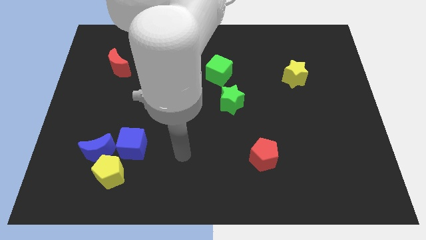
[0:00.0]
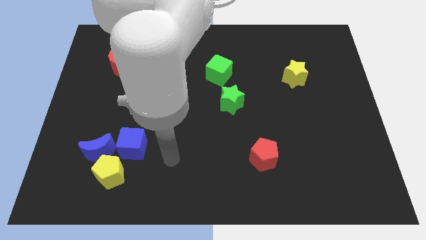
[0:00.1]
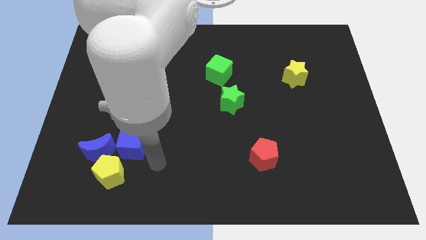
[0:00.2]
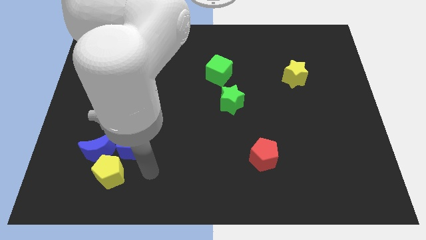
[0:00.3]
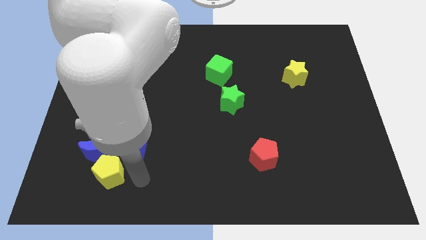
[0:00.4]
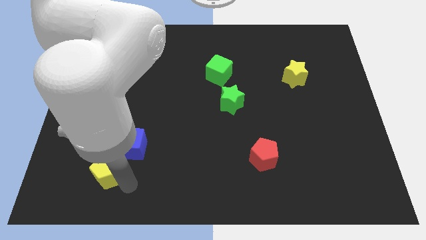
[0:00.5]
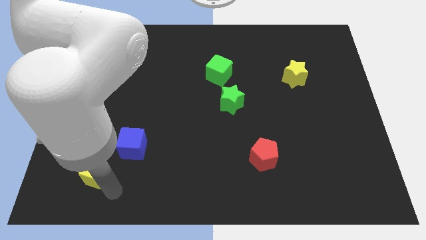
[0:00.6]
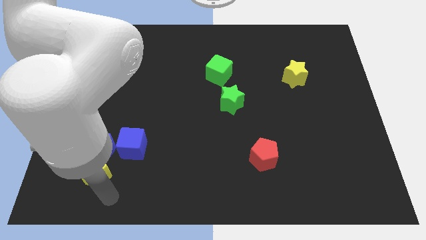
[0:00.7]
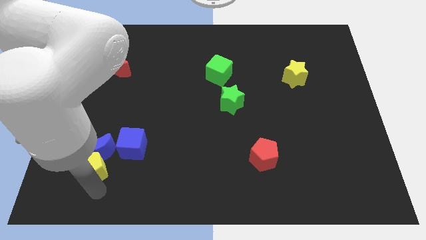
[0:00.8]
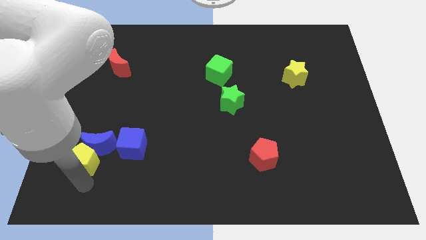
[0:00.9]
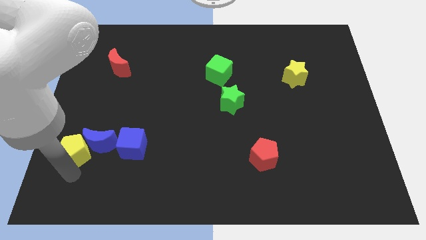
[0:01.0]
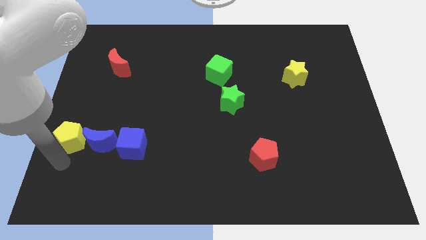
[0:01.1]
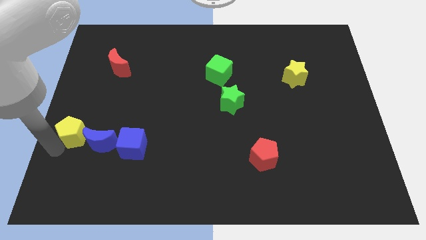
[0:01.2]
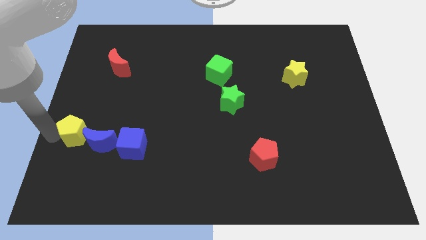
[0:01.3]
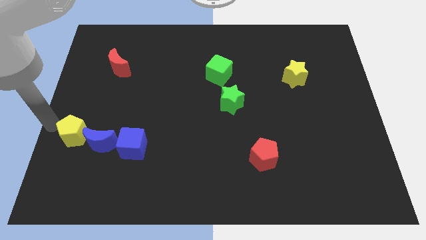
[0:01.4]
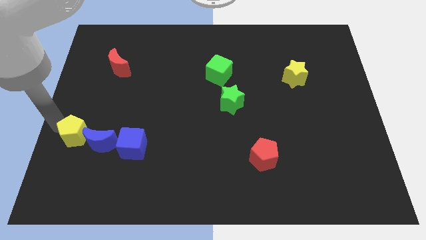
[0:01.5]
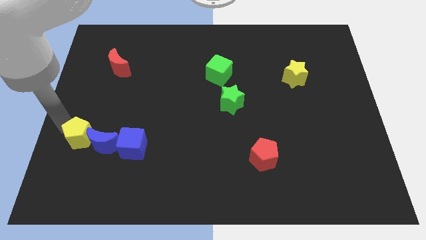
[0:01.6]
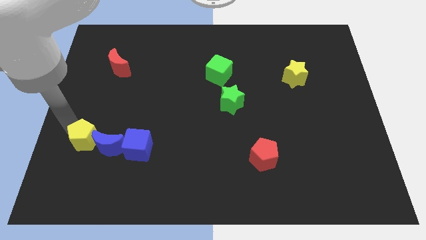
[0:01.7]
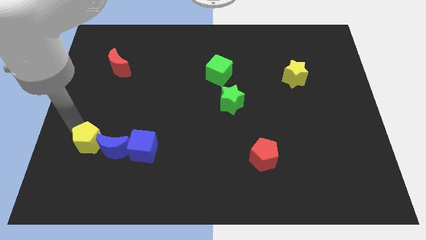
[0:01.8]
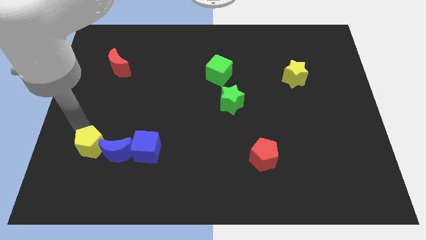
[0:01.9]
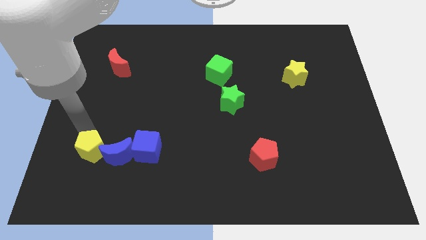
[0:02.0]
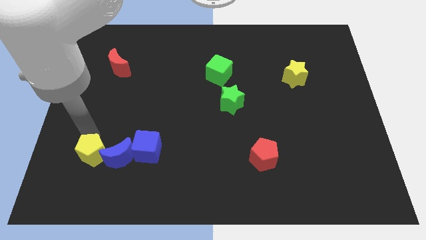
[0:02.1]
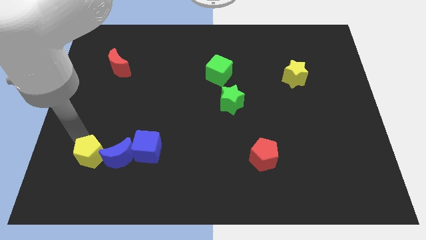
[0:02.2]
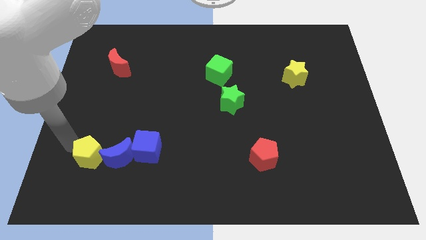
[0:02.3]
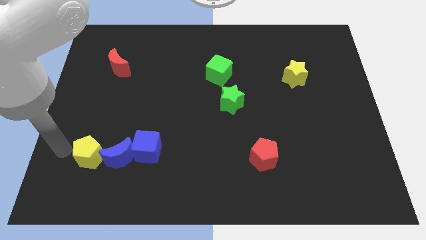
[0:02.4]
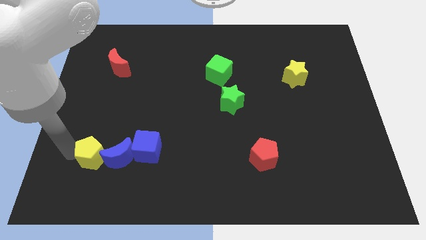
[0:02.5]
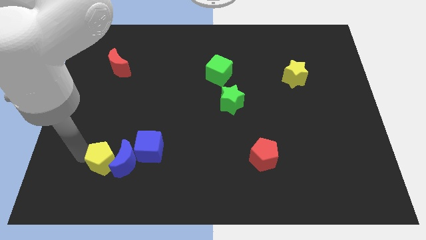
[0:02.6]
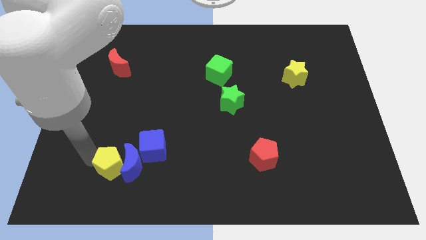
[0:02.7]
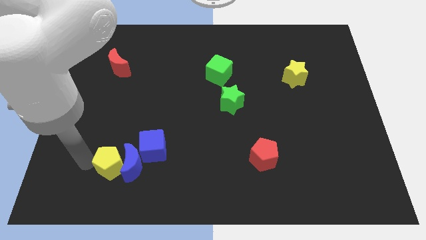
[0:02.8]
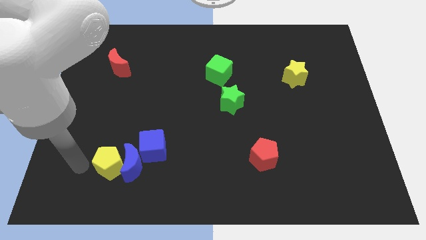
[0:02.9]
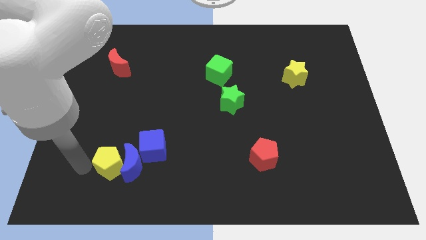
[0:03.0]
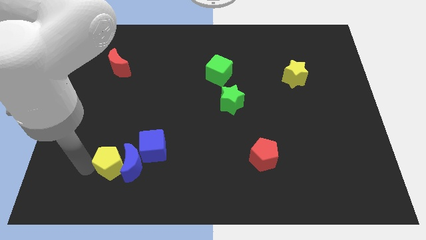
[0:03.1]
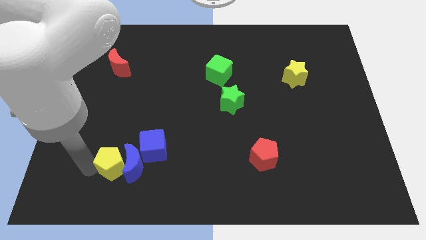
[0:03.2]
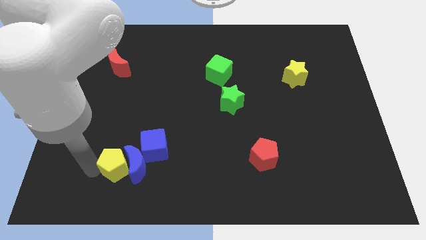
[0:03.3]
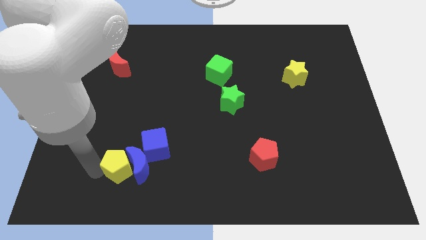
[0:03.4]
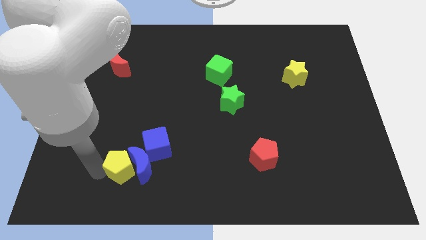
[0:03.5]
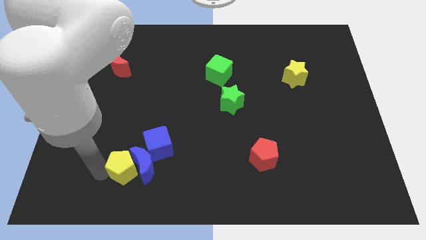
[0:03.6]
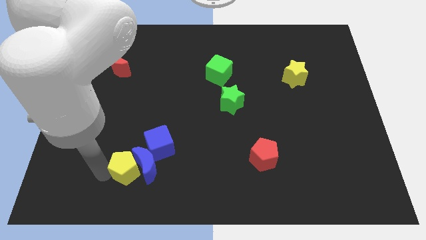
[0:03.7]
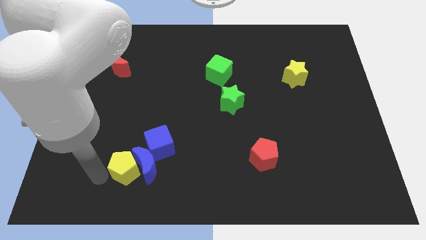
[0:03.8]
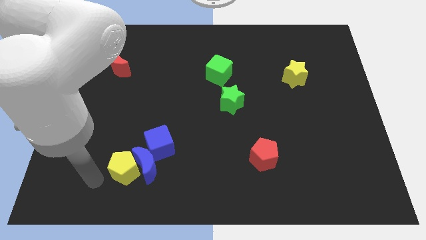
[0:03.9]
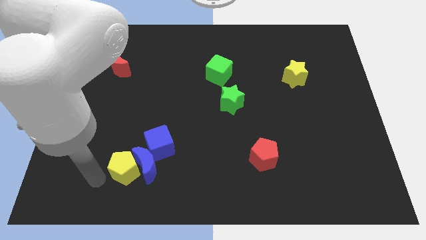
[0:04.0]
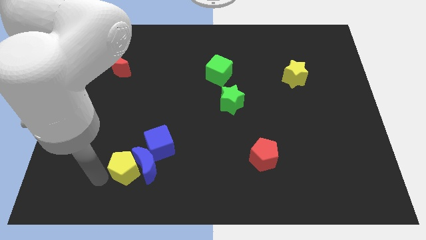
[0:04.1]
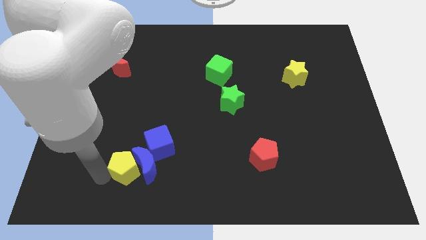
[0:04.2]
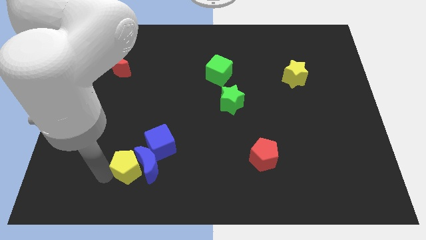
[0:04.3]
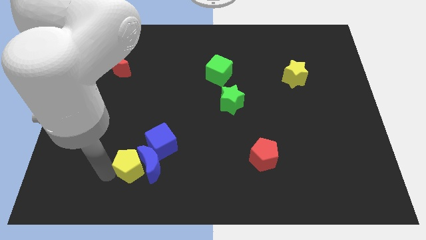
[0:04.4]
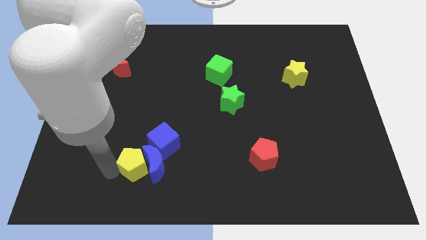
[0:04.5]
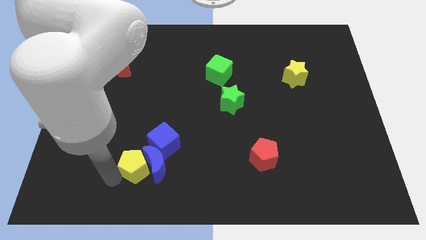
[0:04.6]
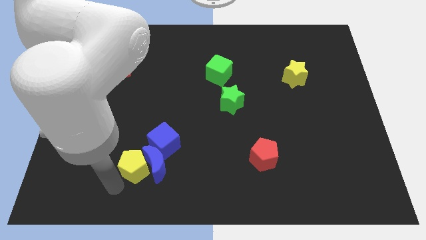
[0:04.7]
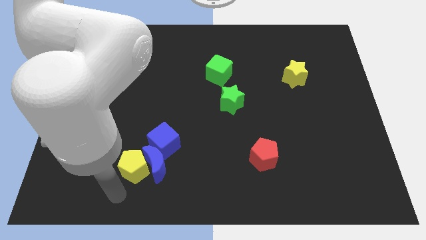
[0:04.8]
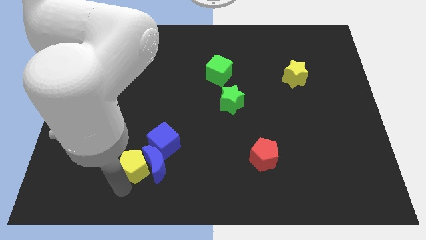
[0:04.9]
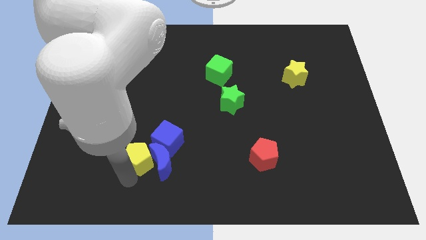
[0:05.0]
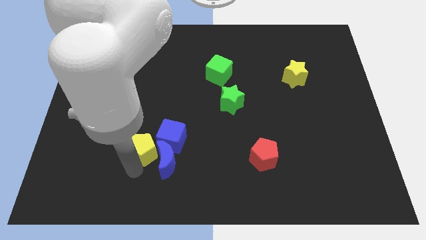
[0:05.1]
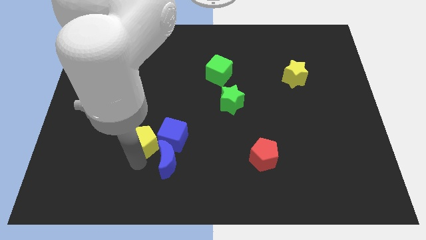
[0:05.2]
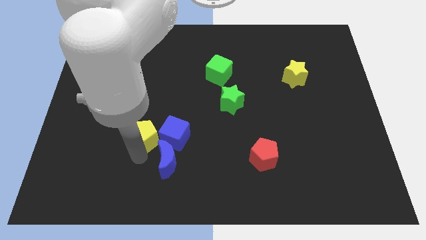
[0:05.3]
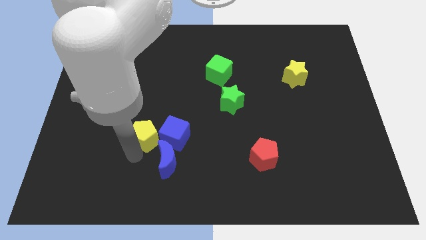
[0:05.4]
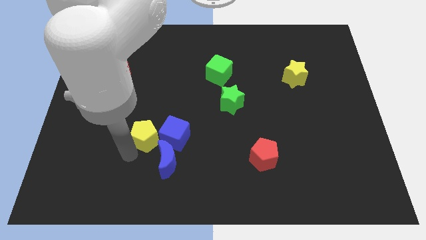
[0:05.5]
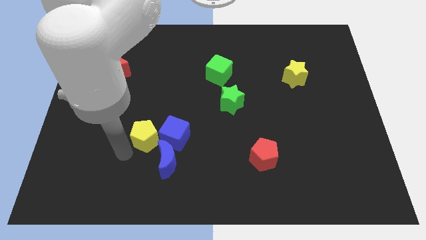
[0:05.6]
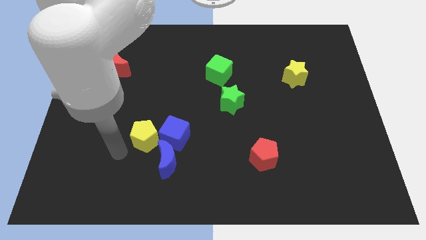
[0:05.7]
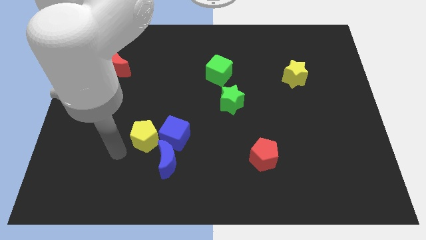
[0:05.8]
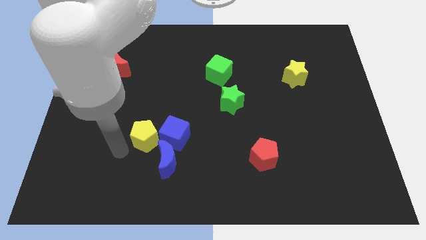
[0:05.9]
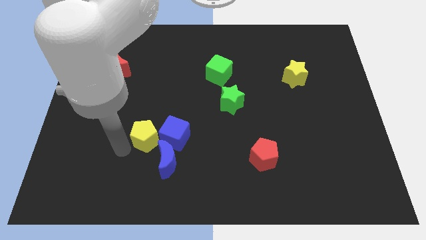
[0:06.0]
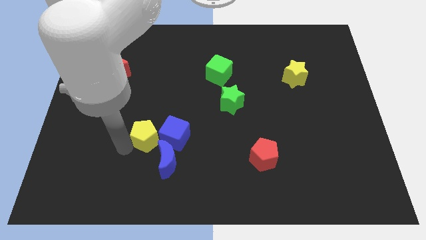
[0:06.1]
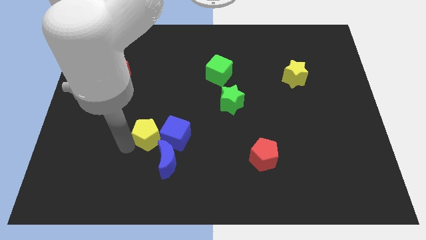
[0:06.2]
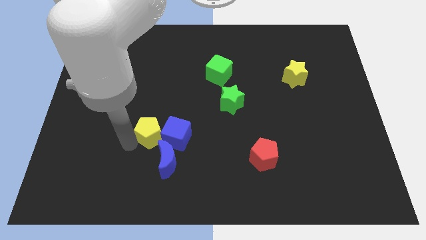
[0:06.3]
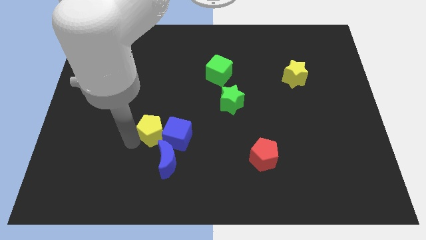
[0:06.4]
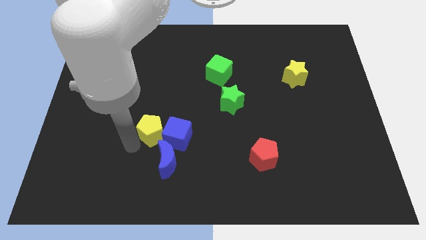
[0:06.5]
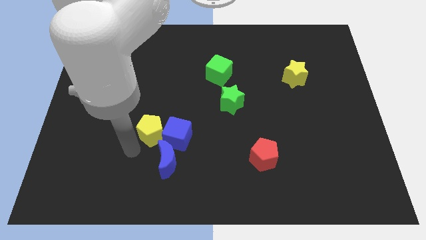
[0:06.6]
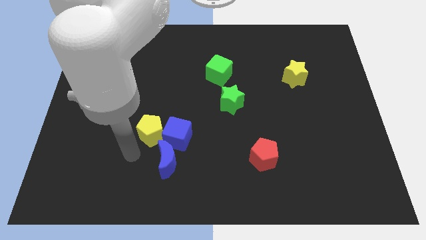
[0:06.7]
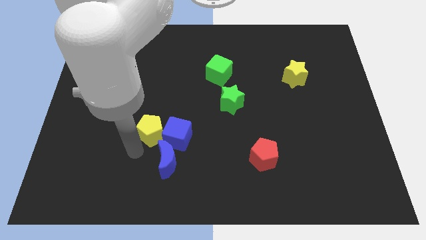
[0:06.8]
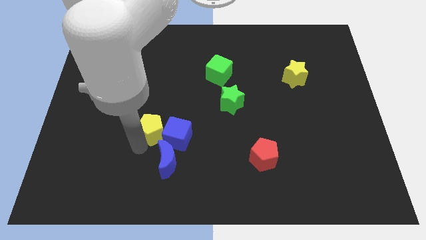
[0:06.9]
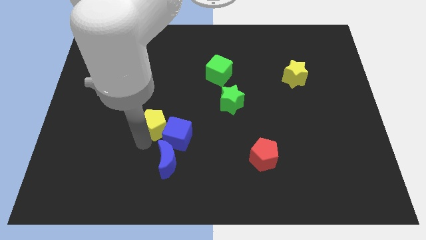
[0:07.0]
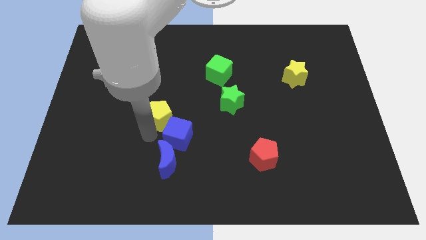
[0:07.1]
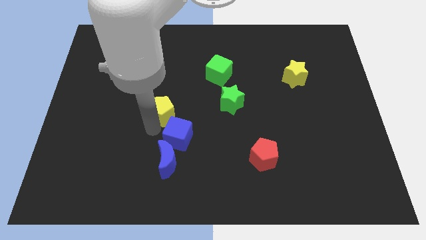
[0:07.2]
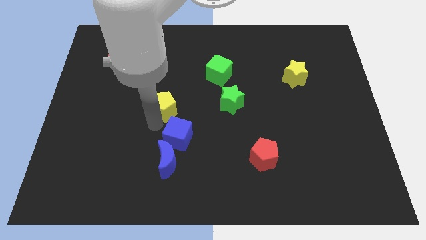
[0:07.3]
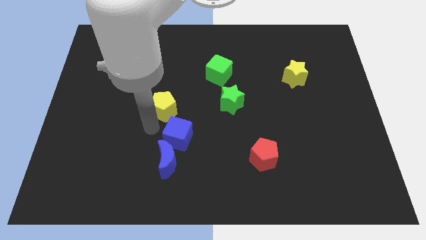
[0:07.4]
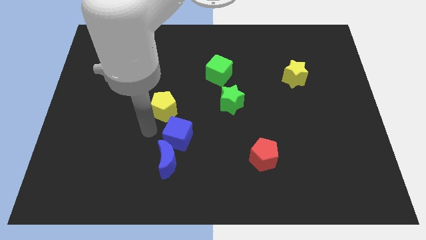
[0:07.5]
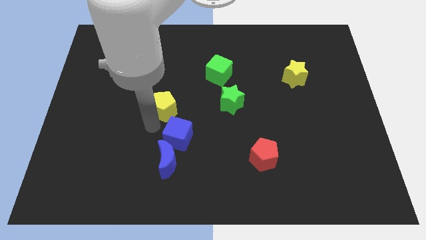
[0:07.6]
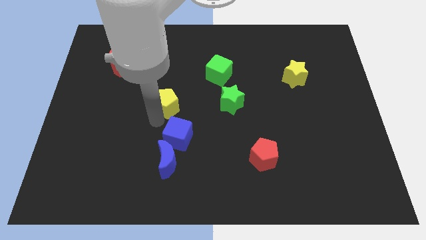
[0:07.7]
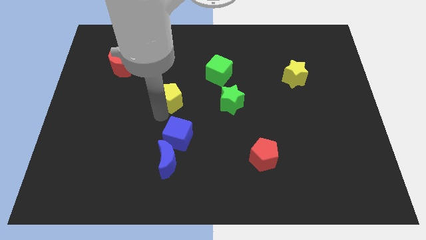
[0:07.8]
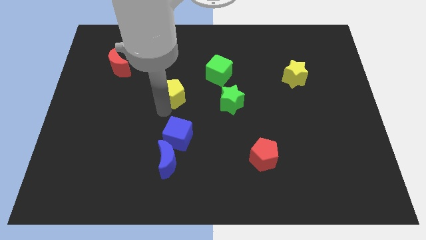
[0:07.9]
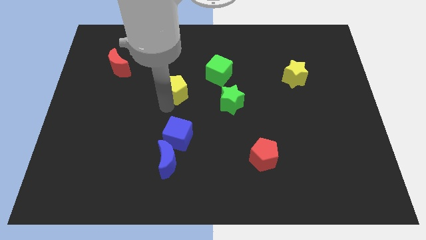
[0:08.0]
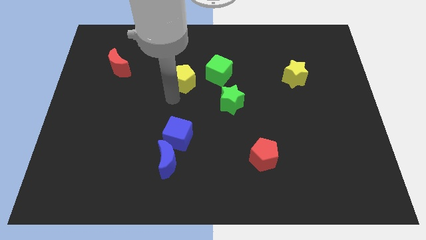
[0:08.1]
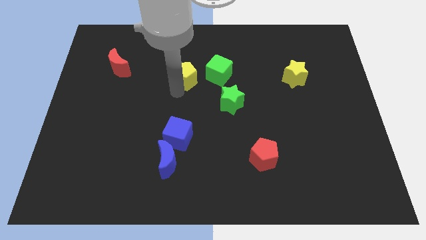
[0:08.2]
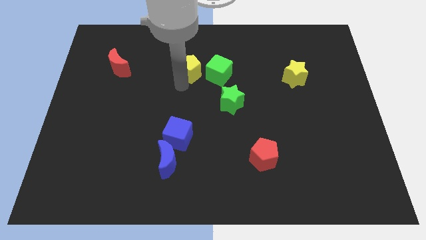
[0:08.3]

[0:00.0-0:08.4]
move the yellow pentagon diagonally up and to the left of the green cube
